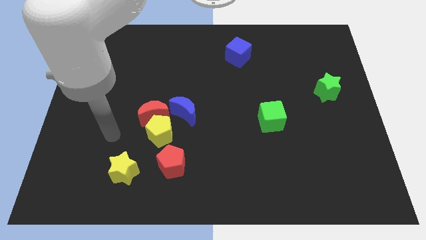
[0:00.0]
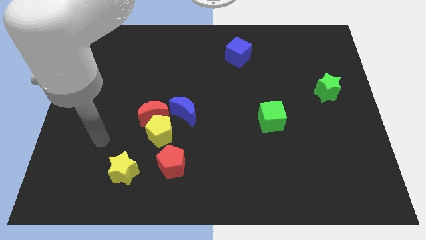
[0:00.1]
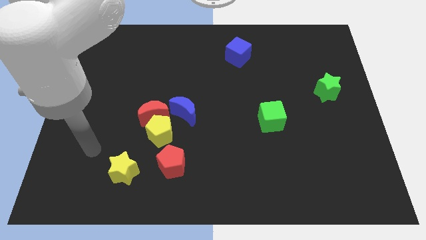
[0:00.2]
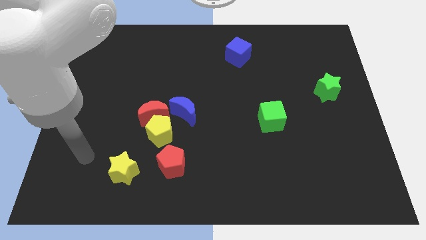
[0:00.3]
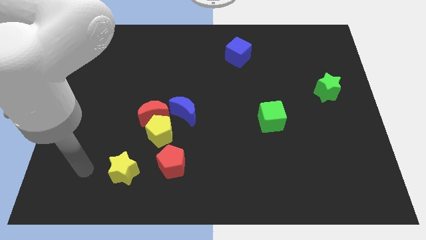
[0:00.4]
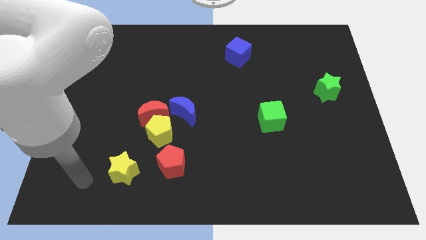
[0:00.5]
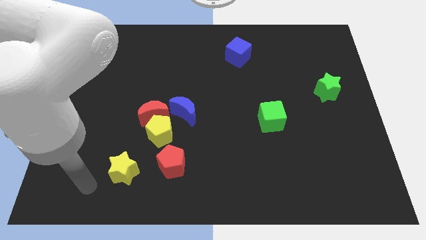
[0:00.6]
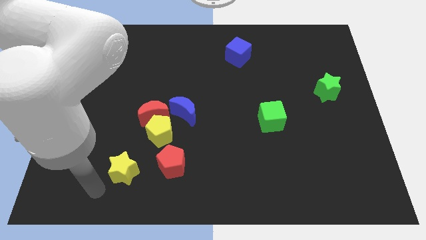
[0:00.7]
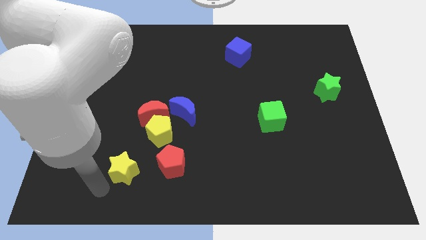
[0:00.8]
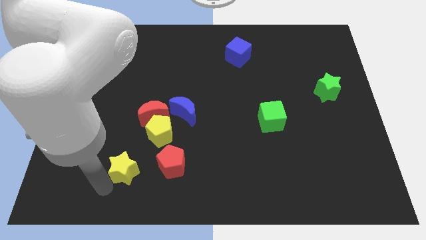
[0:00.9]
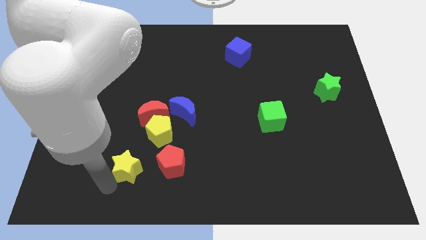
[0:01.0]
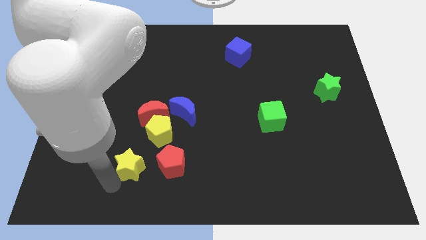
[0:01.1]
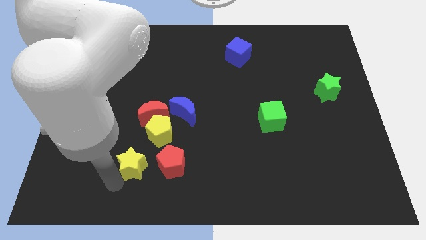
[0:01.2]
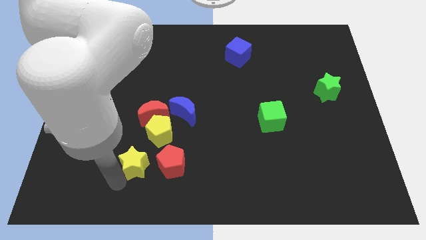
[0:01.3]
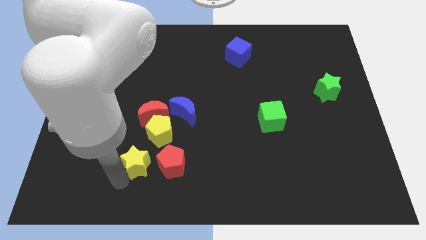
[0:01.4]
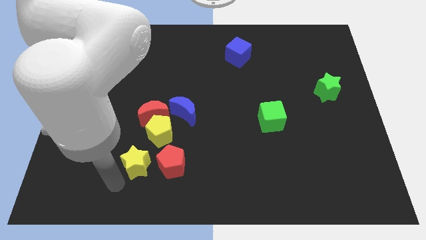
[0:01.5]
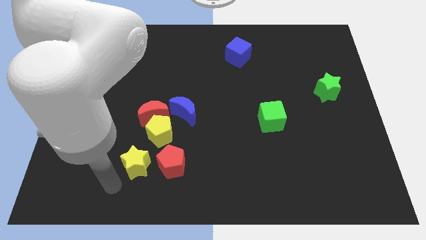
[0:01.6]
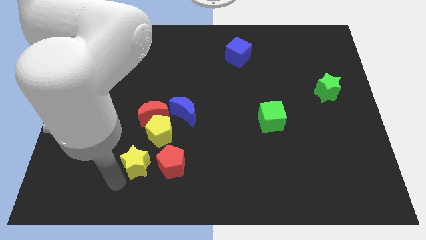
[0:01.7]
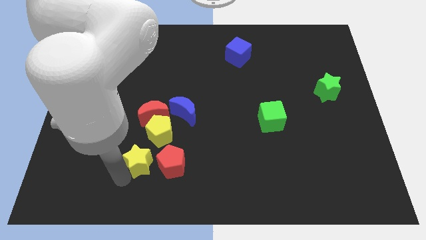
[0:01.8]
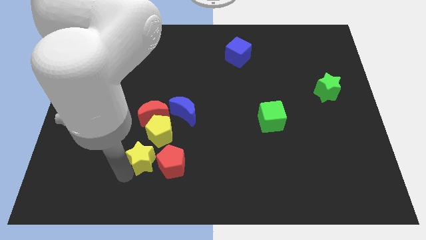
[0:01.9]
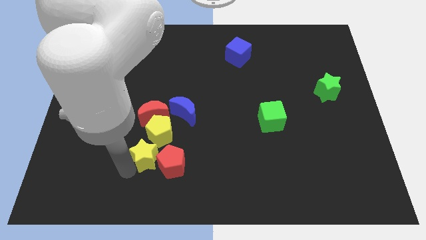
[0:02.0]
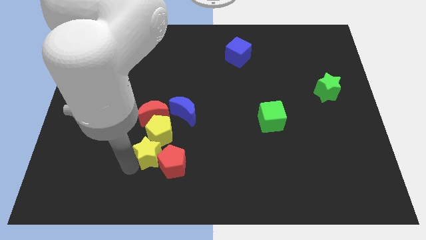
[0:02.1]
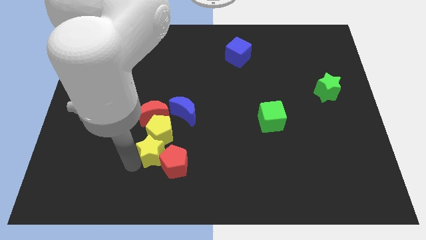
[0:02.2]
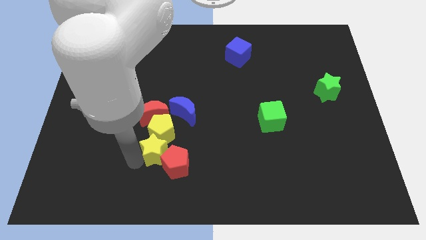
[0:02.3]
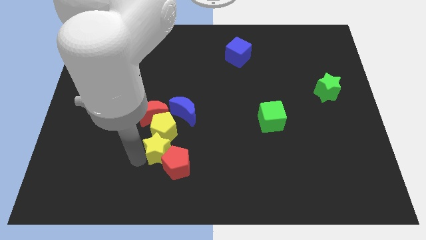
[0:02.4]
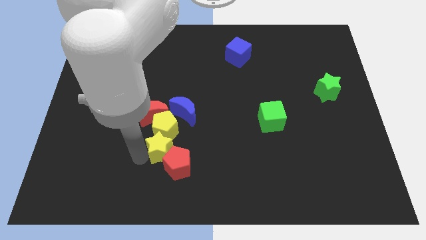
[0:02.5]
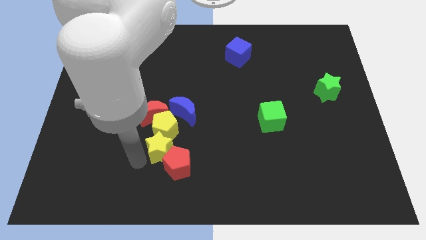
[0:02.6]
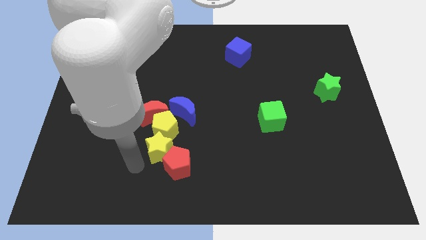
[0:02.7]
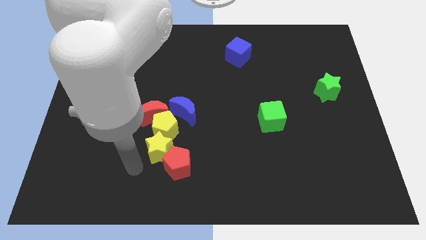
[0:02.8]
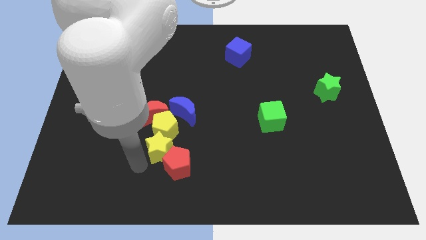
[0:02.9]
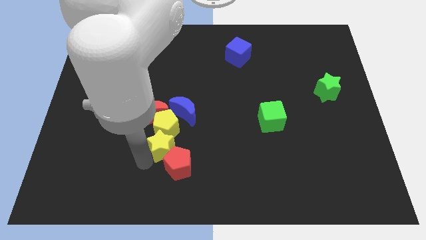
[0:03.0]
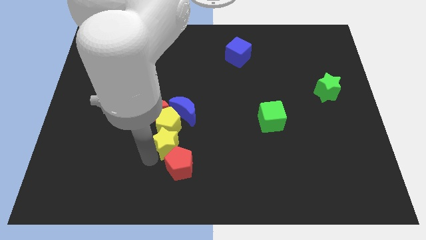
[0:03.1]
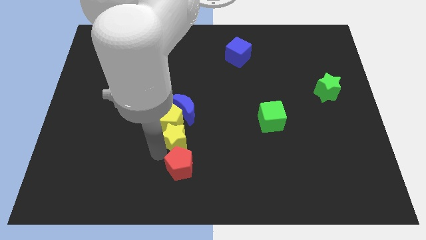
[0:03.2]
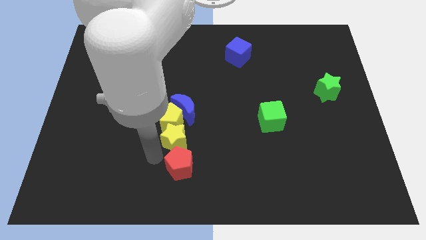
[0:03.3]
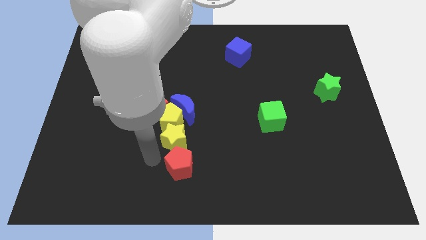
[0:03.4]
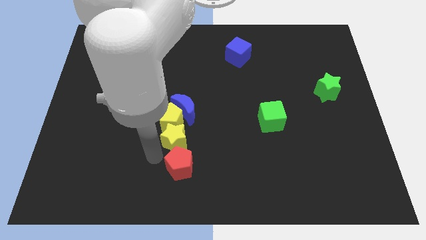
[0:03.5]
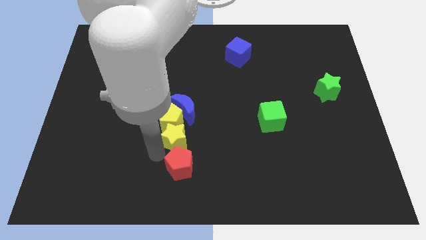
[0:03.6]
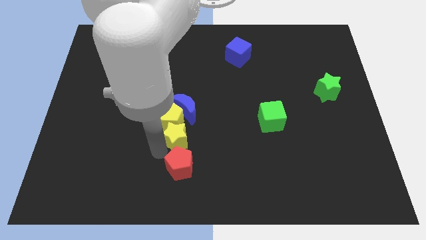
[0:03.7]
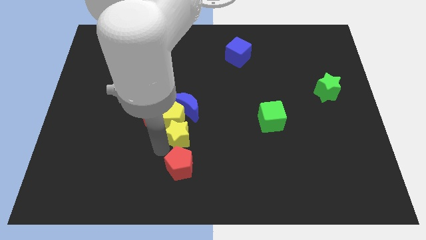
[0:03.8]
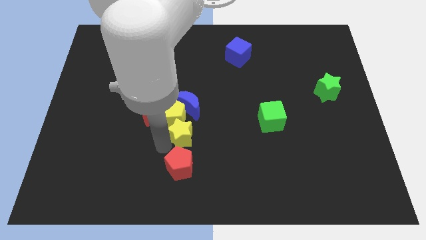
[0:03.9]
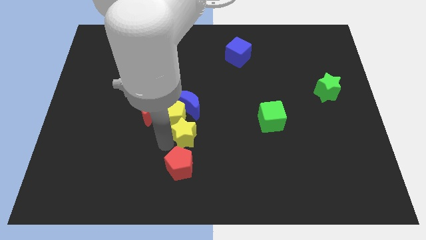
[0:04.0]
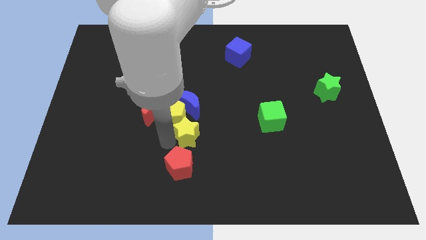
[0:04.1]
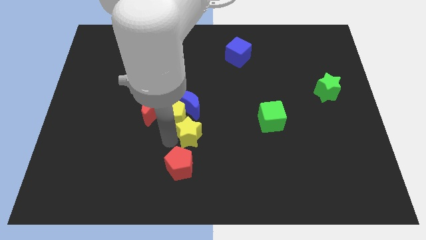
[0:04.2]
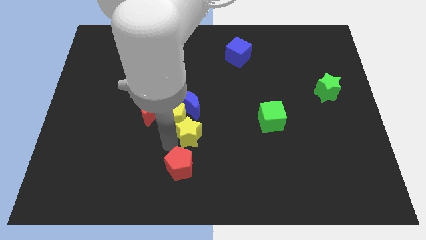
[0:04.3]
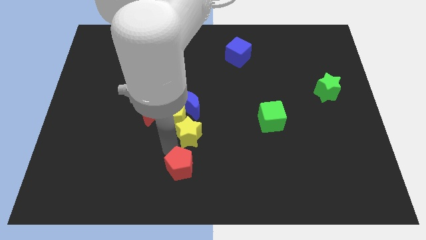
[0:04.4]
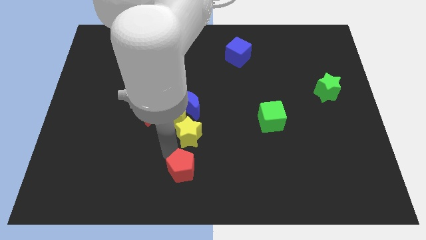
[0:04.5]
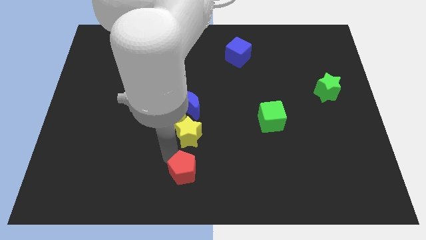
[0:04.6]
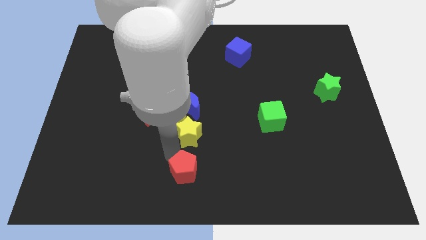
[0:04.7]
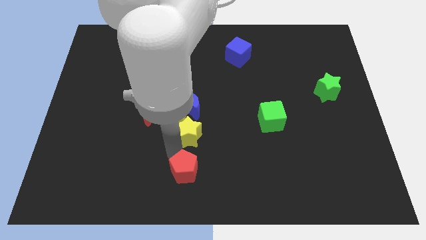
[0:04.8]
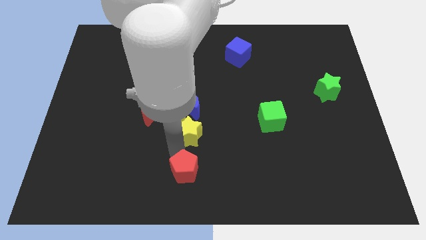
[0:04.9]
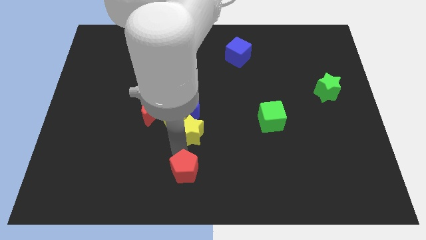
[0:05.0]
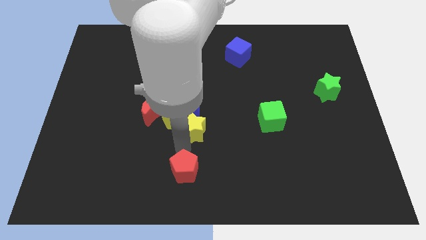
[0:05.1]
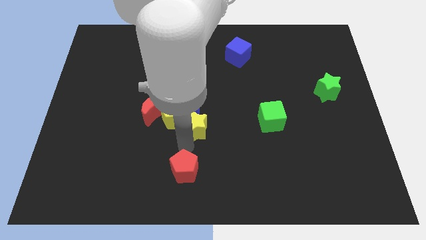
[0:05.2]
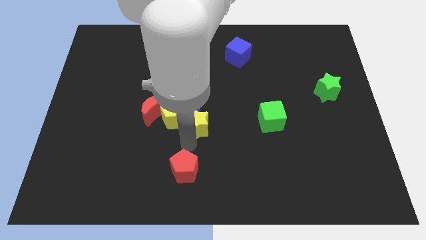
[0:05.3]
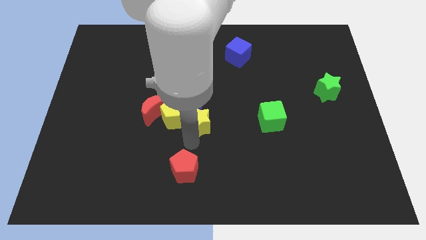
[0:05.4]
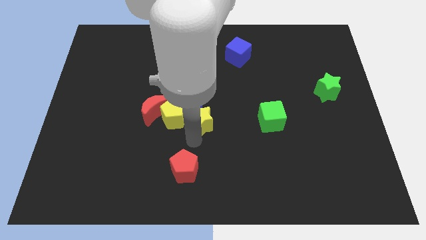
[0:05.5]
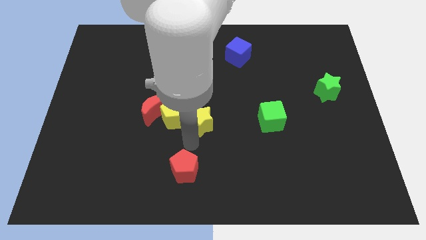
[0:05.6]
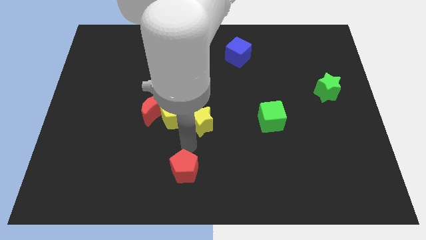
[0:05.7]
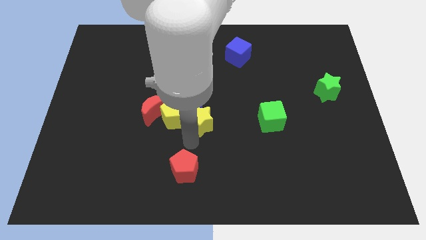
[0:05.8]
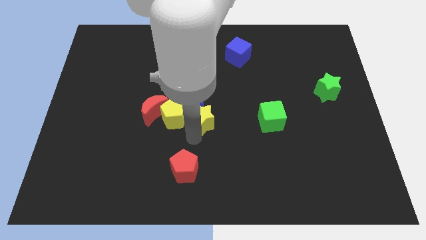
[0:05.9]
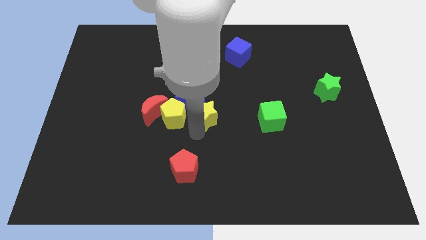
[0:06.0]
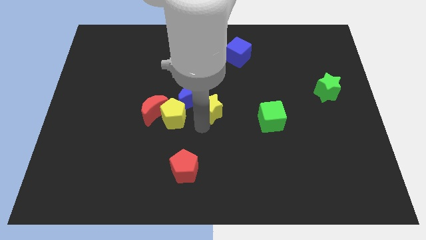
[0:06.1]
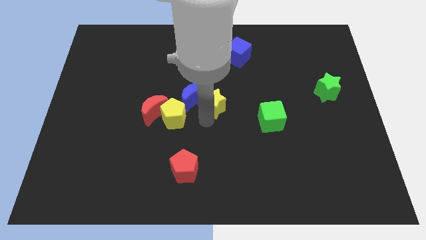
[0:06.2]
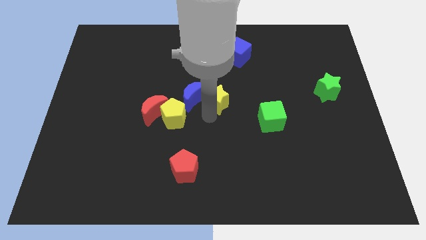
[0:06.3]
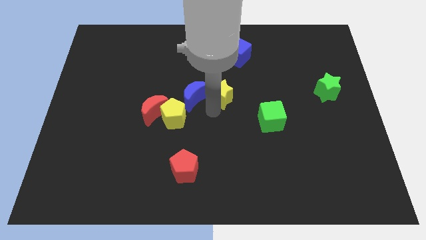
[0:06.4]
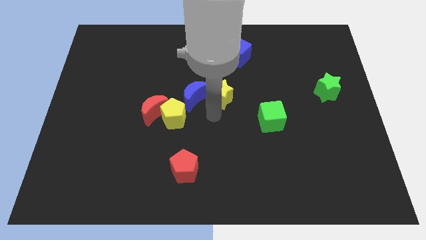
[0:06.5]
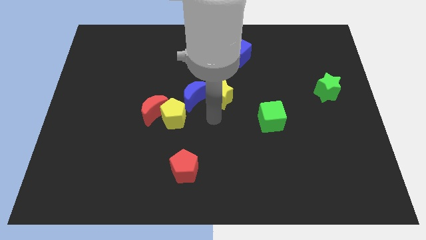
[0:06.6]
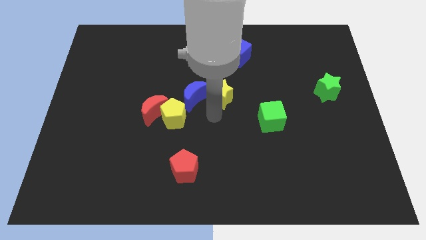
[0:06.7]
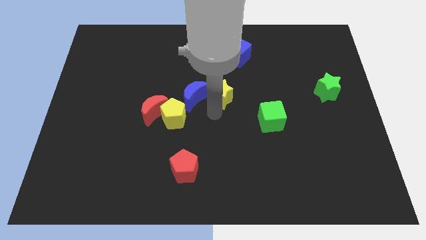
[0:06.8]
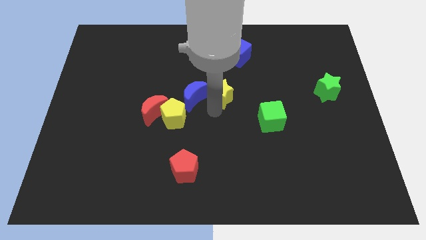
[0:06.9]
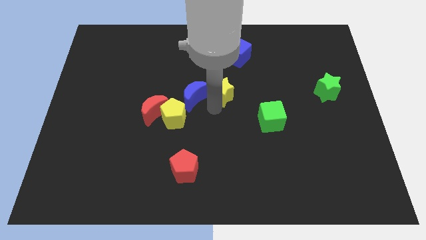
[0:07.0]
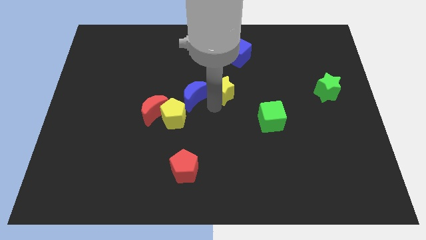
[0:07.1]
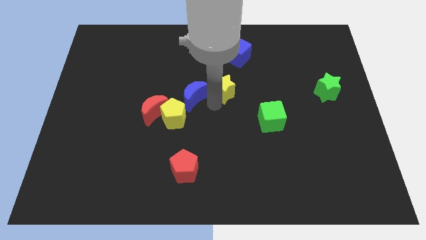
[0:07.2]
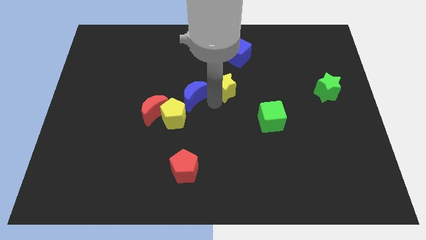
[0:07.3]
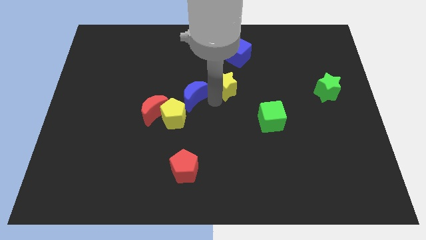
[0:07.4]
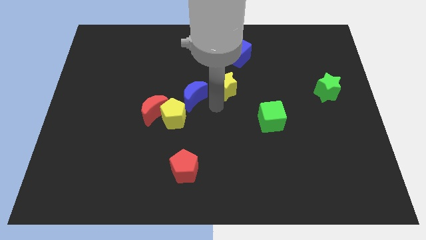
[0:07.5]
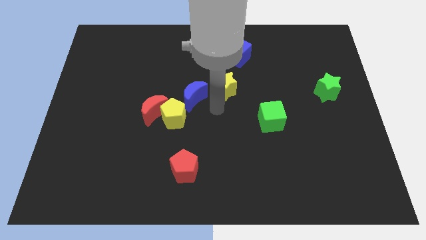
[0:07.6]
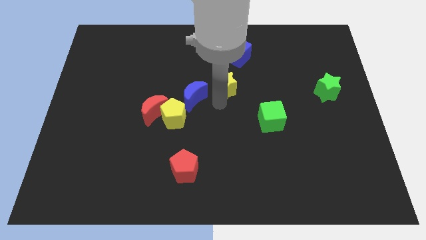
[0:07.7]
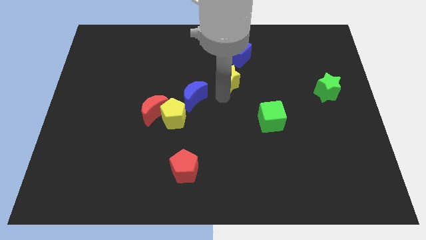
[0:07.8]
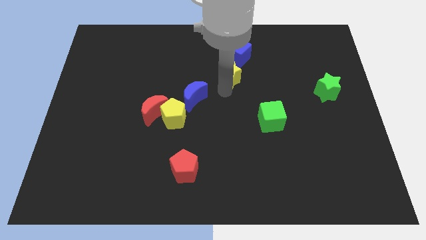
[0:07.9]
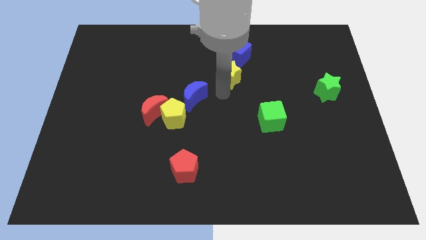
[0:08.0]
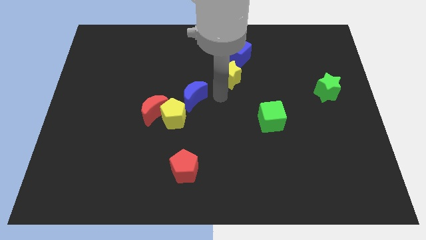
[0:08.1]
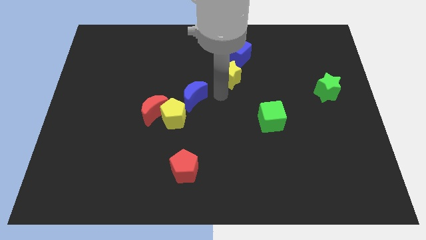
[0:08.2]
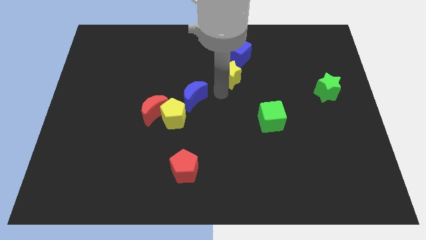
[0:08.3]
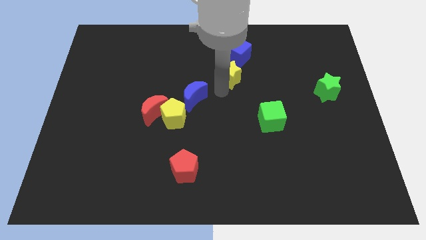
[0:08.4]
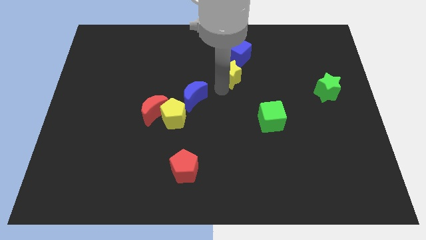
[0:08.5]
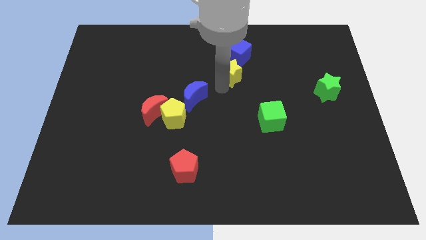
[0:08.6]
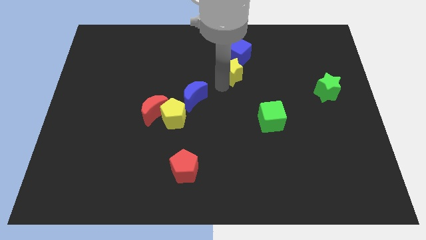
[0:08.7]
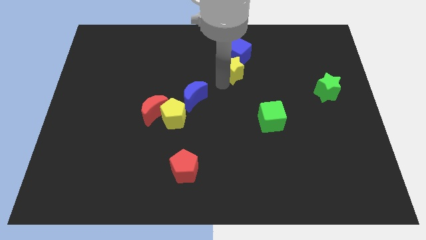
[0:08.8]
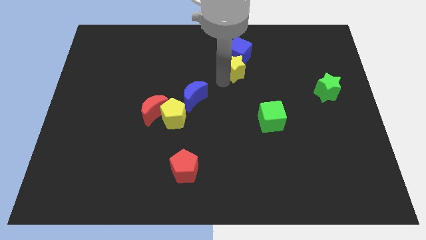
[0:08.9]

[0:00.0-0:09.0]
push the yellow star to the blue cube
